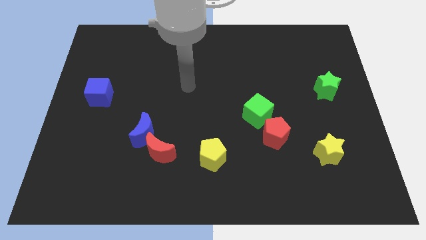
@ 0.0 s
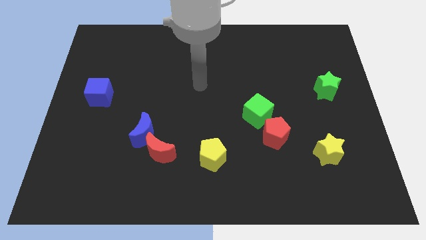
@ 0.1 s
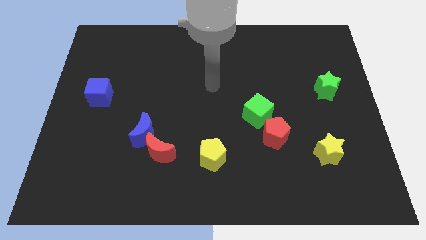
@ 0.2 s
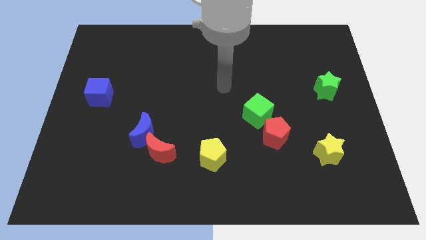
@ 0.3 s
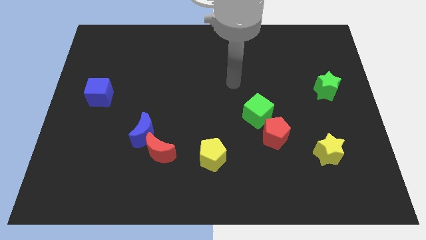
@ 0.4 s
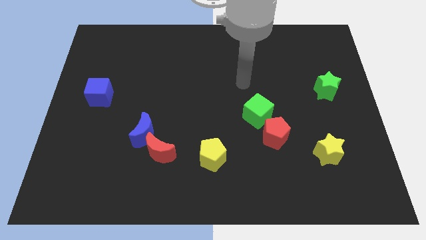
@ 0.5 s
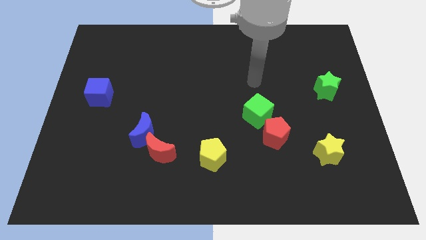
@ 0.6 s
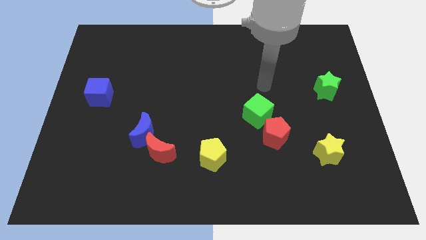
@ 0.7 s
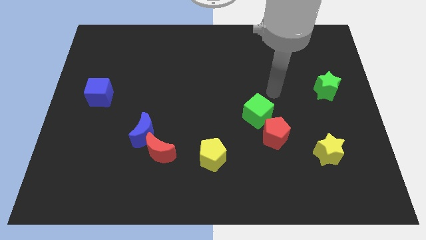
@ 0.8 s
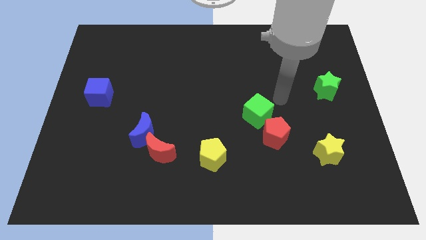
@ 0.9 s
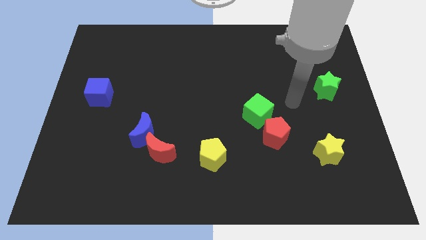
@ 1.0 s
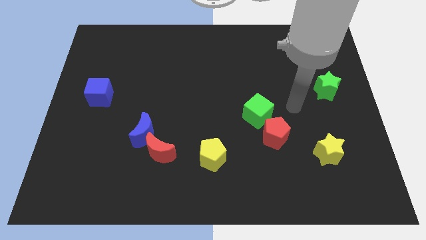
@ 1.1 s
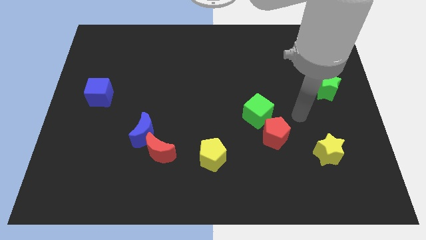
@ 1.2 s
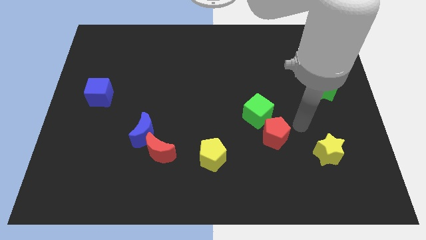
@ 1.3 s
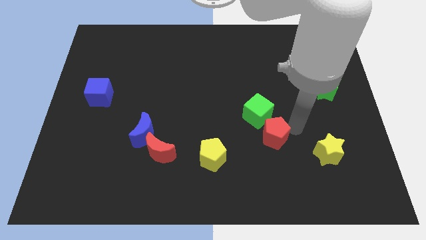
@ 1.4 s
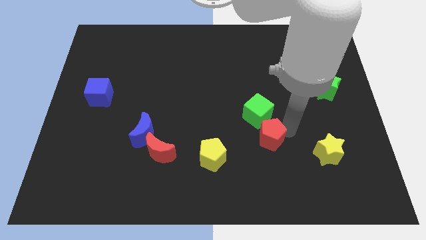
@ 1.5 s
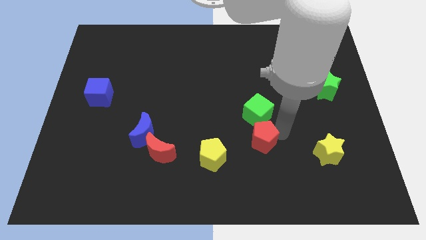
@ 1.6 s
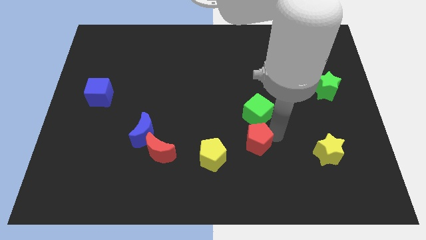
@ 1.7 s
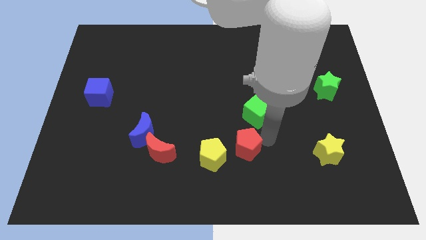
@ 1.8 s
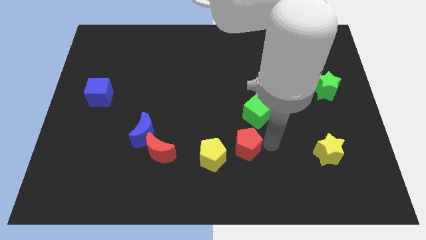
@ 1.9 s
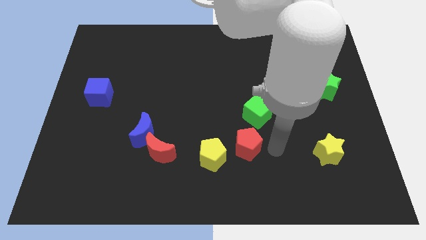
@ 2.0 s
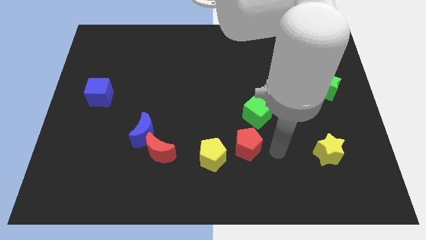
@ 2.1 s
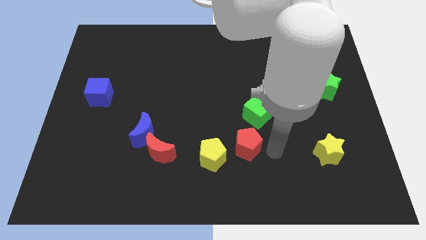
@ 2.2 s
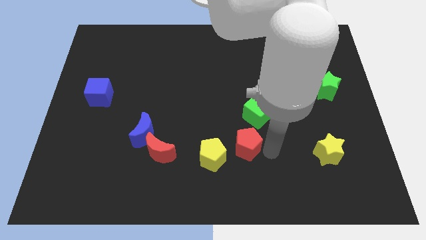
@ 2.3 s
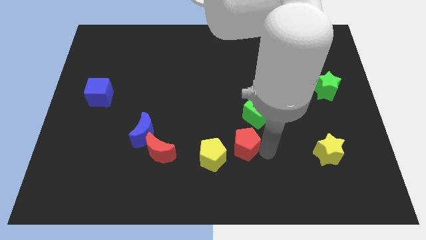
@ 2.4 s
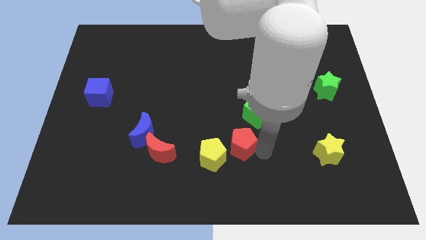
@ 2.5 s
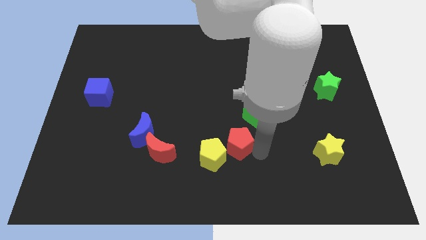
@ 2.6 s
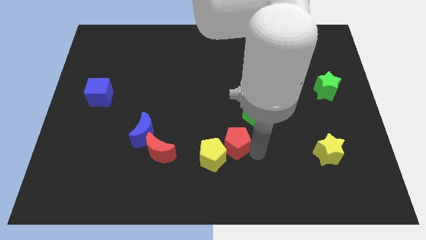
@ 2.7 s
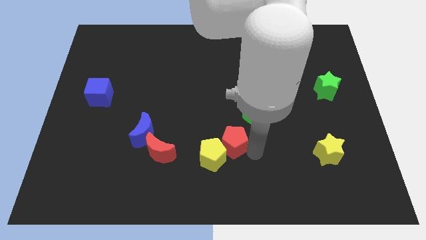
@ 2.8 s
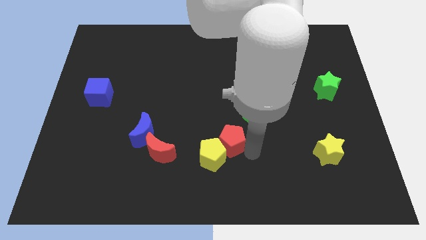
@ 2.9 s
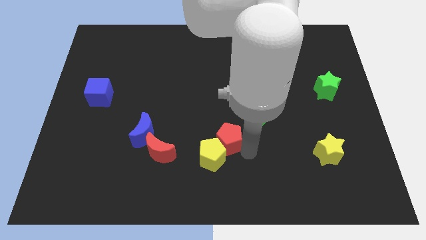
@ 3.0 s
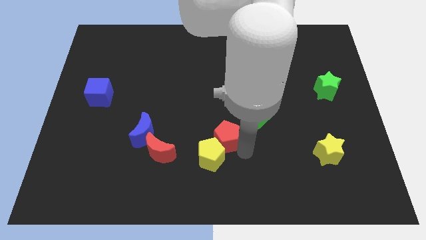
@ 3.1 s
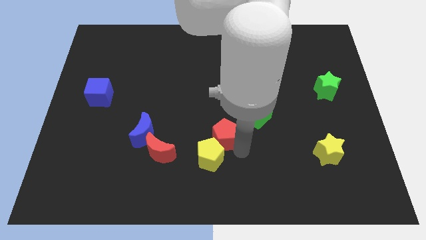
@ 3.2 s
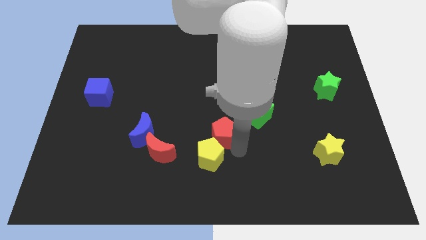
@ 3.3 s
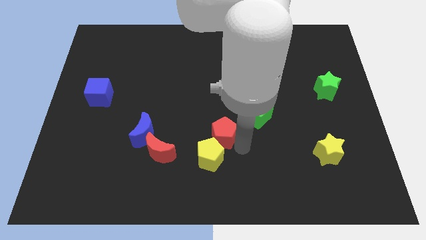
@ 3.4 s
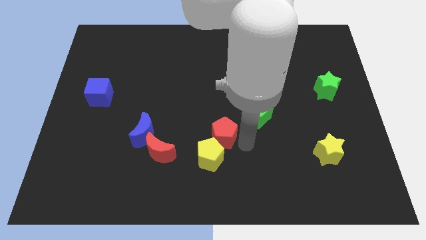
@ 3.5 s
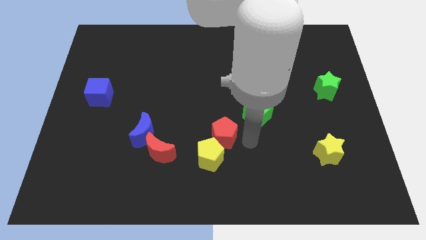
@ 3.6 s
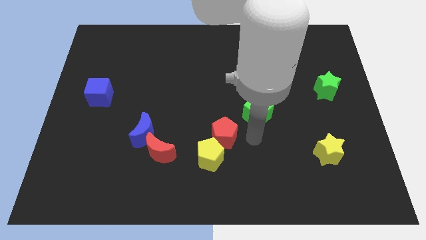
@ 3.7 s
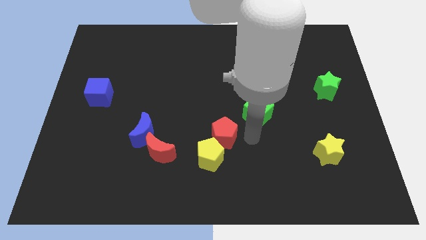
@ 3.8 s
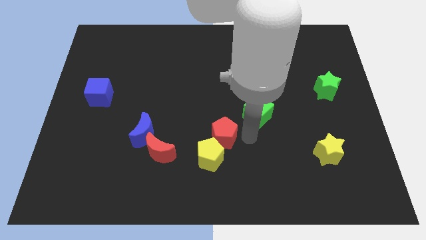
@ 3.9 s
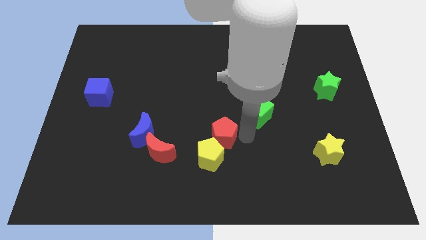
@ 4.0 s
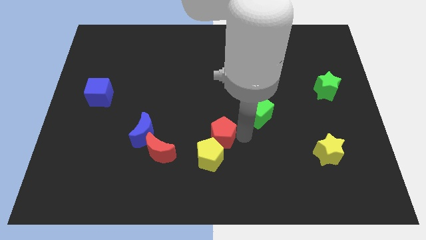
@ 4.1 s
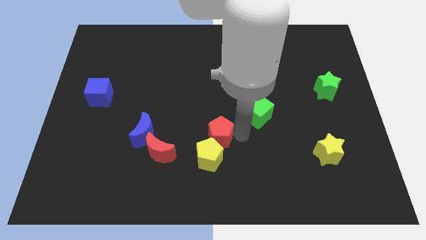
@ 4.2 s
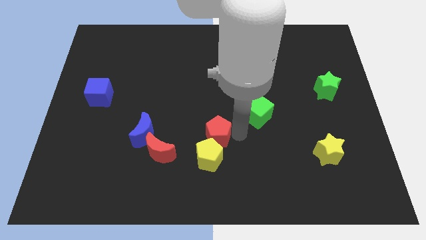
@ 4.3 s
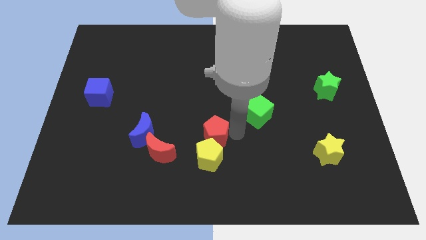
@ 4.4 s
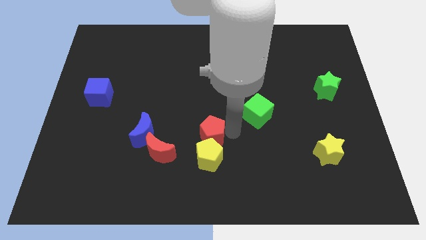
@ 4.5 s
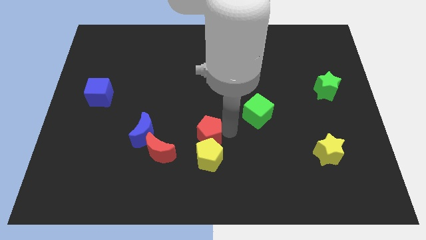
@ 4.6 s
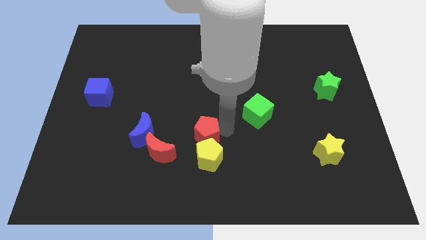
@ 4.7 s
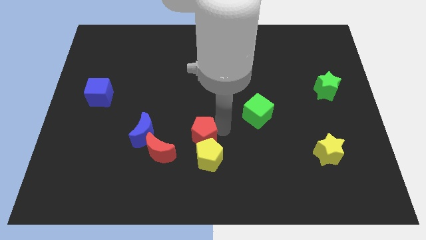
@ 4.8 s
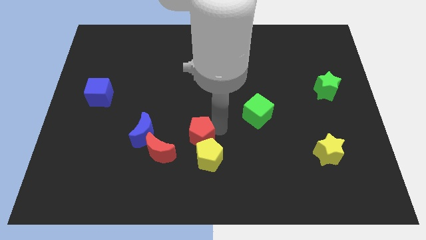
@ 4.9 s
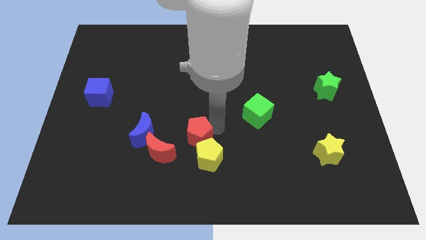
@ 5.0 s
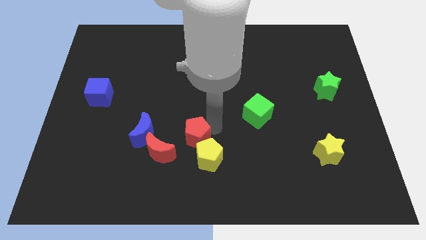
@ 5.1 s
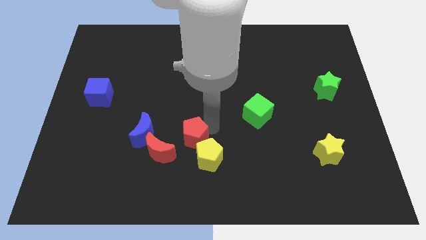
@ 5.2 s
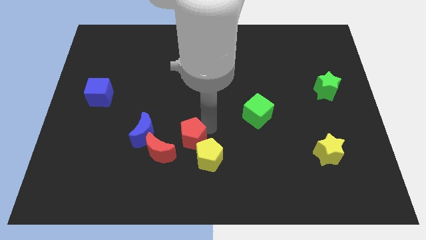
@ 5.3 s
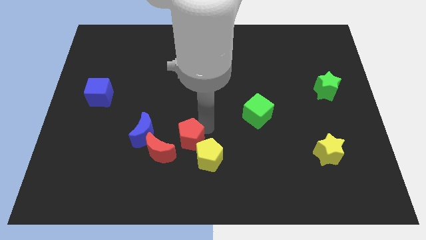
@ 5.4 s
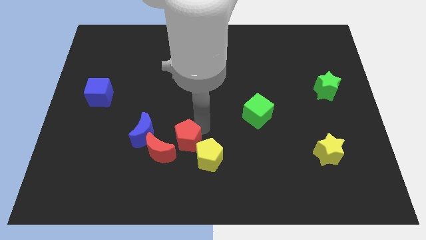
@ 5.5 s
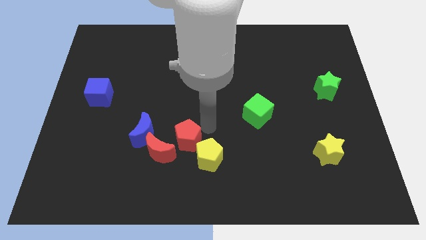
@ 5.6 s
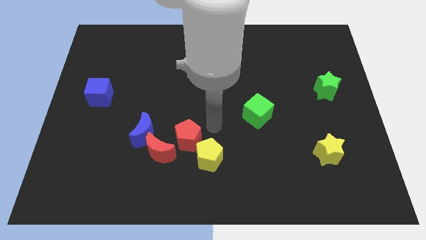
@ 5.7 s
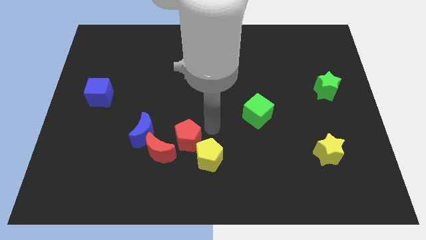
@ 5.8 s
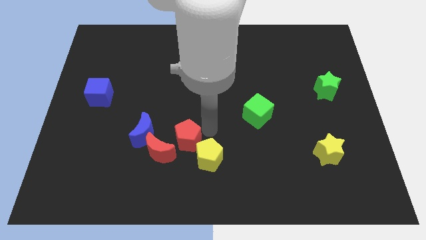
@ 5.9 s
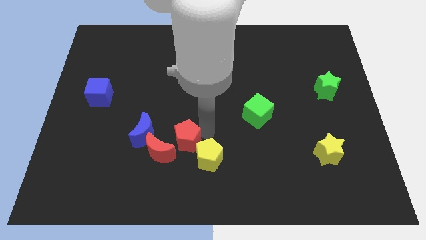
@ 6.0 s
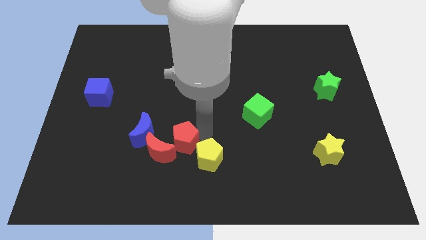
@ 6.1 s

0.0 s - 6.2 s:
slide the red pentagon close to the red moon

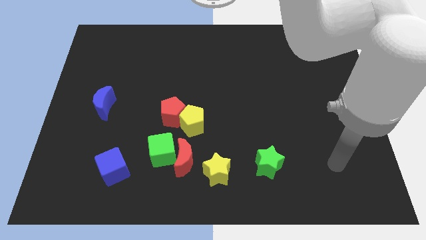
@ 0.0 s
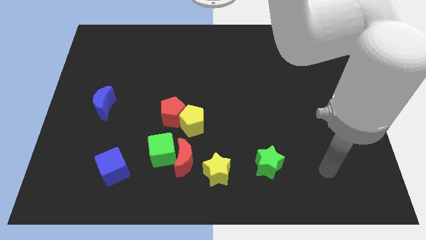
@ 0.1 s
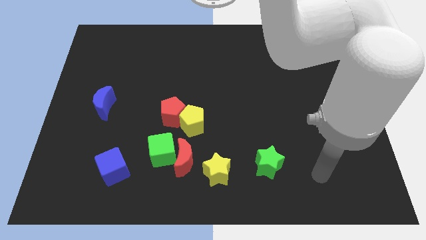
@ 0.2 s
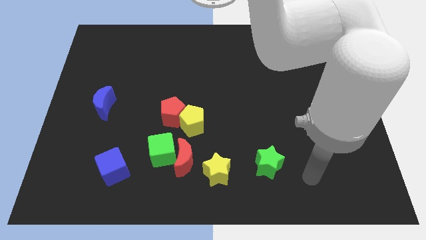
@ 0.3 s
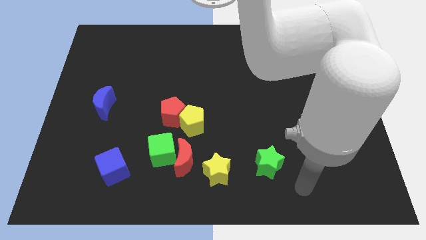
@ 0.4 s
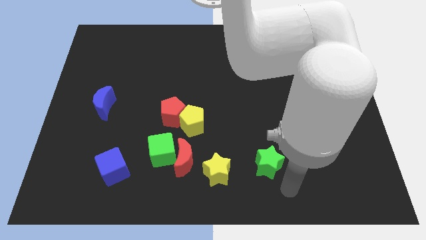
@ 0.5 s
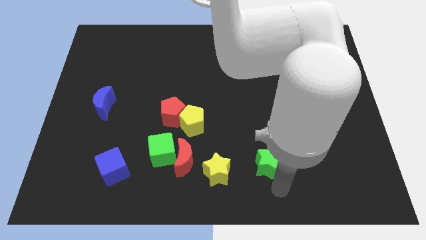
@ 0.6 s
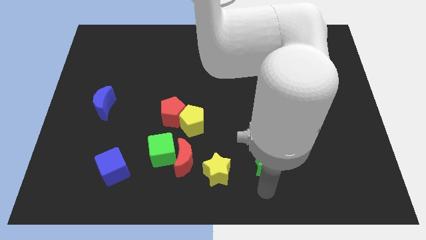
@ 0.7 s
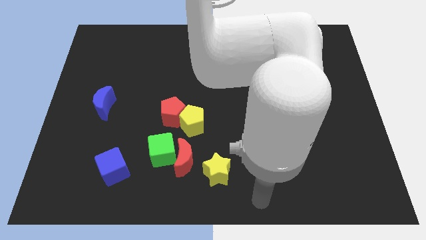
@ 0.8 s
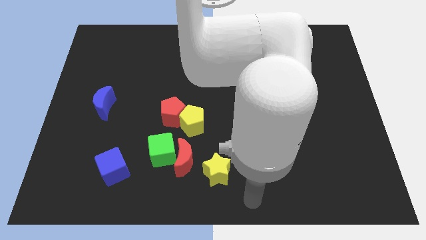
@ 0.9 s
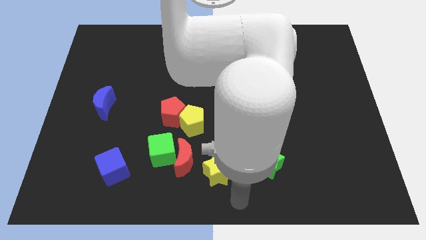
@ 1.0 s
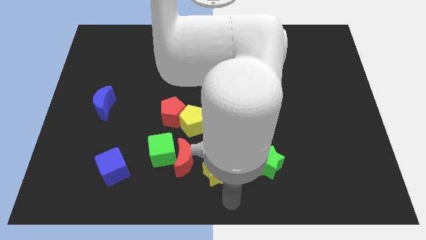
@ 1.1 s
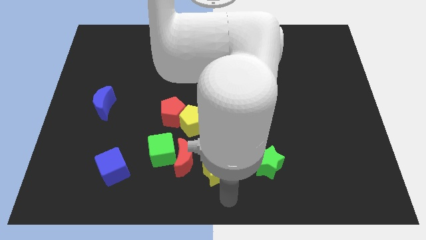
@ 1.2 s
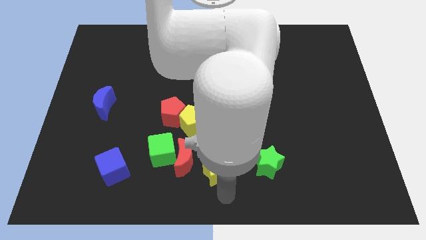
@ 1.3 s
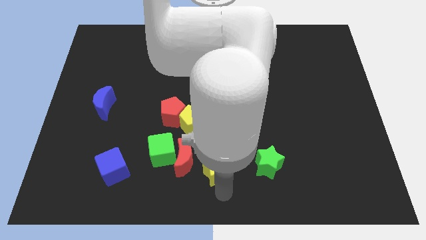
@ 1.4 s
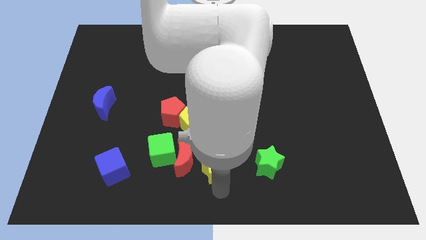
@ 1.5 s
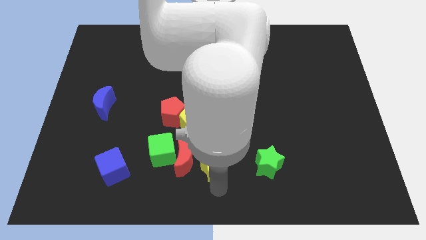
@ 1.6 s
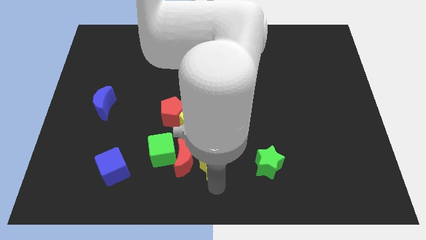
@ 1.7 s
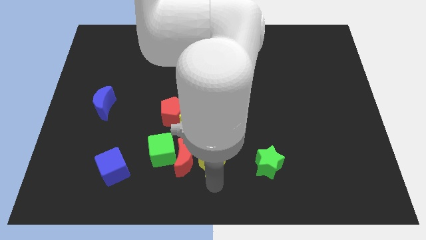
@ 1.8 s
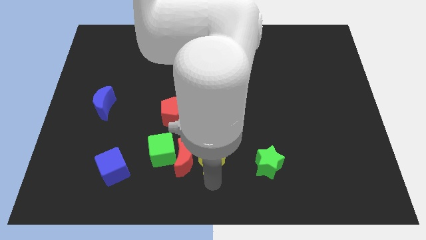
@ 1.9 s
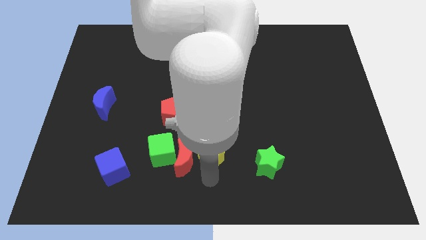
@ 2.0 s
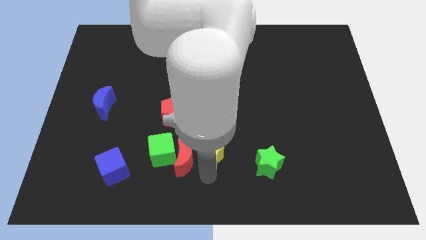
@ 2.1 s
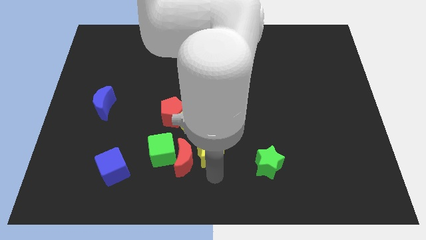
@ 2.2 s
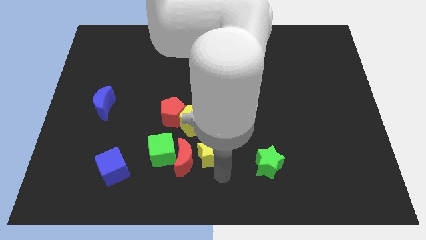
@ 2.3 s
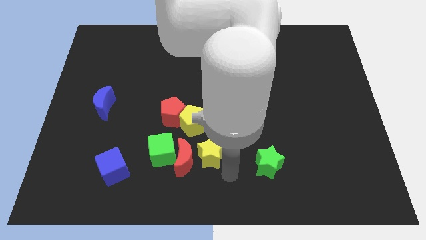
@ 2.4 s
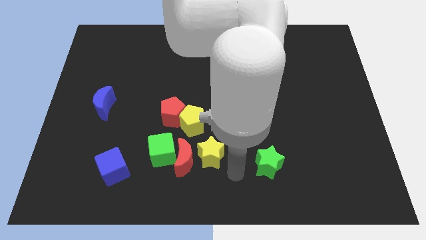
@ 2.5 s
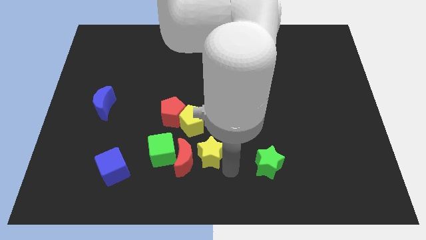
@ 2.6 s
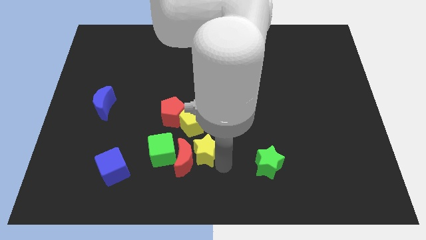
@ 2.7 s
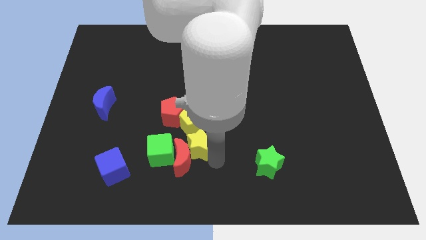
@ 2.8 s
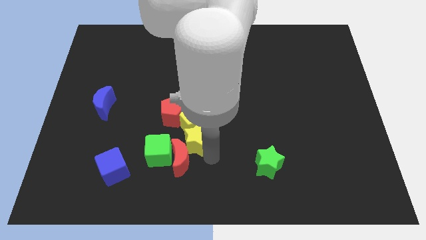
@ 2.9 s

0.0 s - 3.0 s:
move the yellow star next to the yellow pentagon
